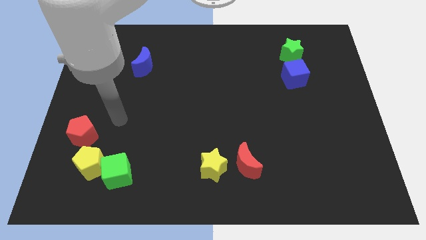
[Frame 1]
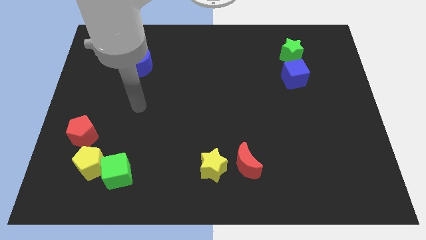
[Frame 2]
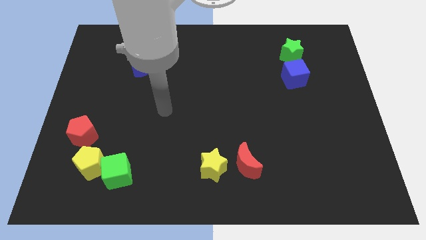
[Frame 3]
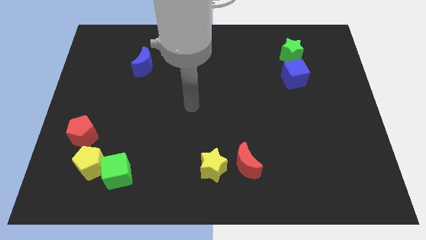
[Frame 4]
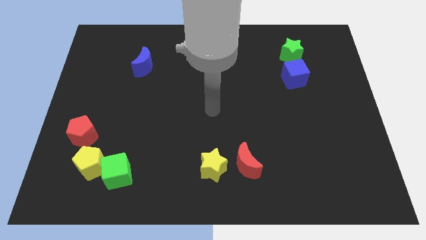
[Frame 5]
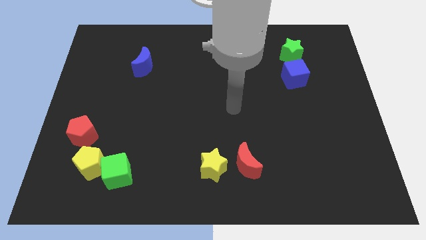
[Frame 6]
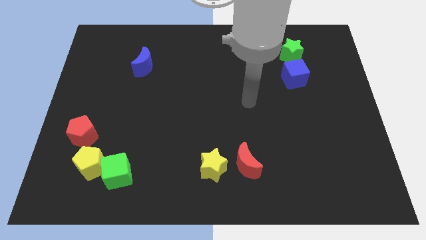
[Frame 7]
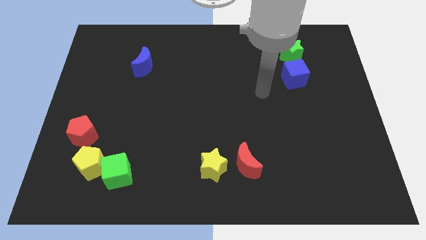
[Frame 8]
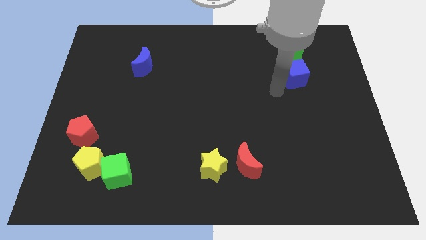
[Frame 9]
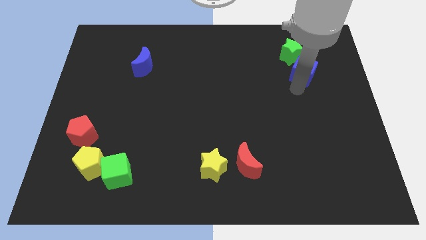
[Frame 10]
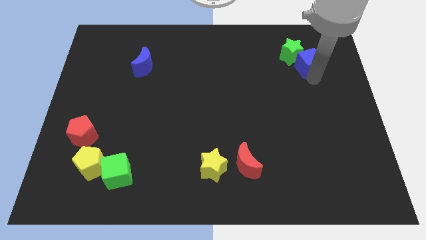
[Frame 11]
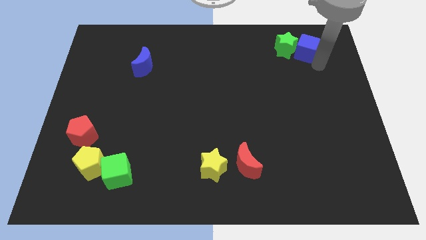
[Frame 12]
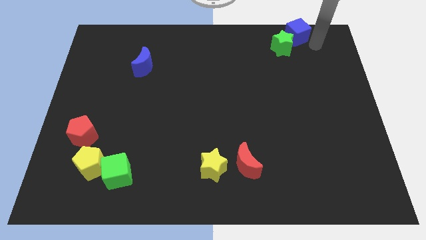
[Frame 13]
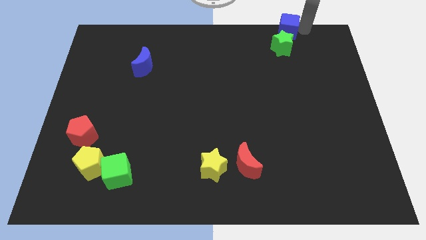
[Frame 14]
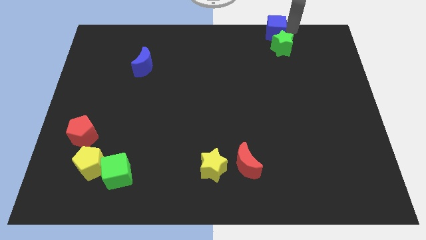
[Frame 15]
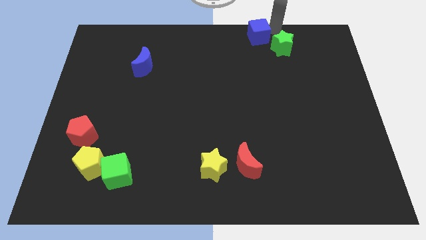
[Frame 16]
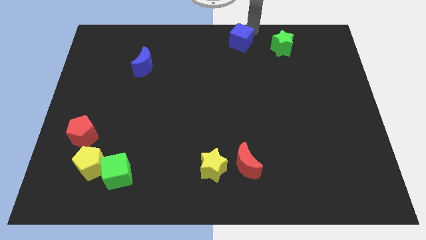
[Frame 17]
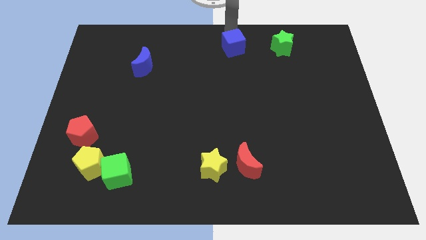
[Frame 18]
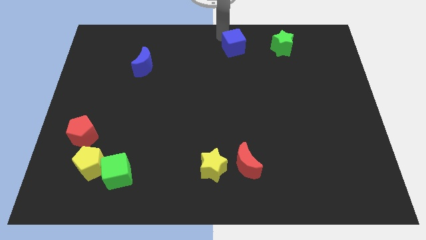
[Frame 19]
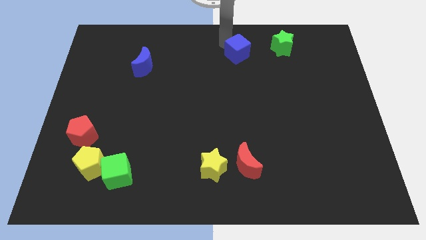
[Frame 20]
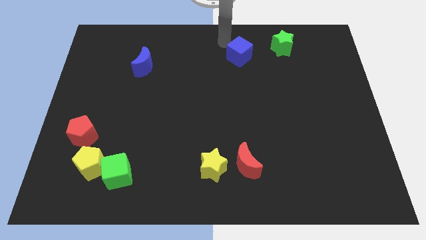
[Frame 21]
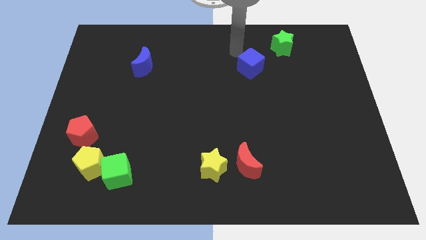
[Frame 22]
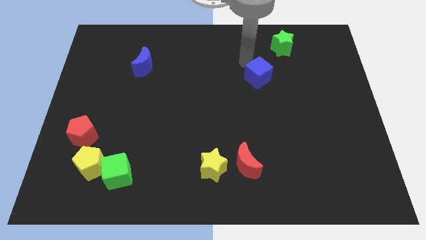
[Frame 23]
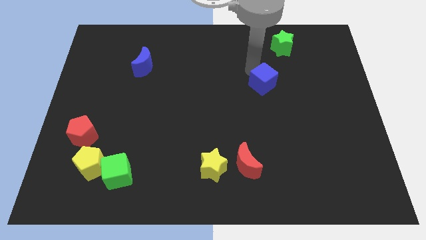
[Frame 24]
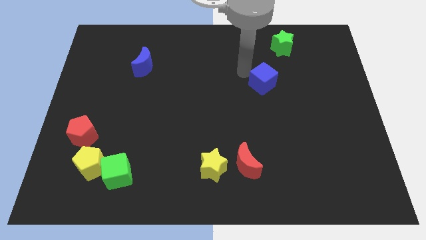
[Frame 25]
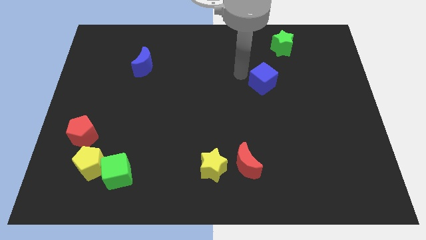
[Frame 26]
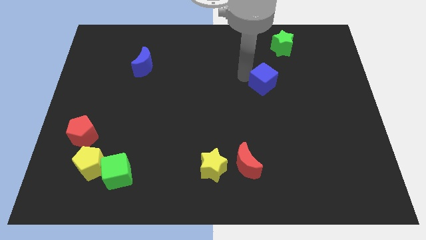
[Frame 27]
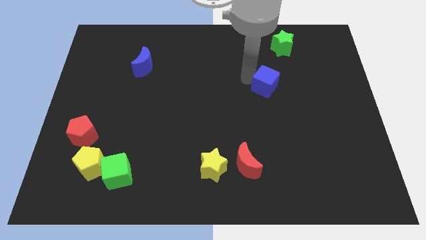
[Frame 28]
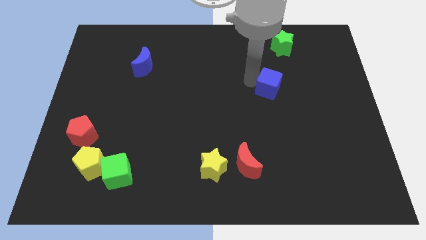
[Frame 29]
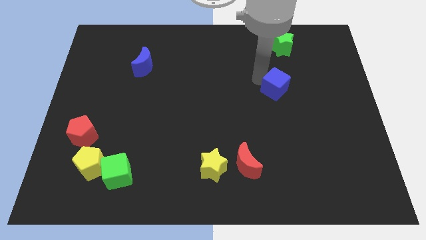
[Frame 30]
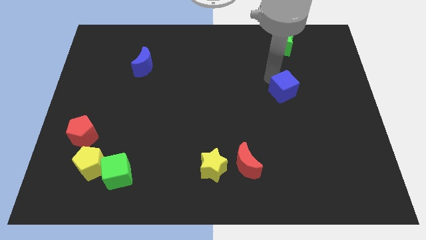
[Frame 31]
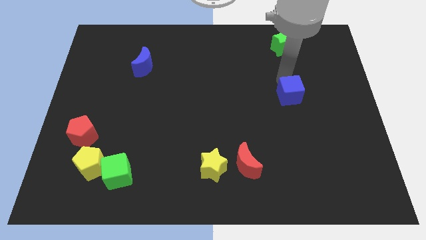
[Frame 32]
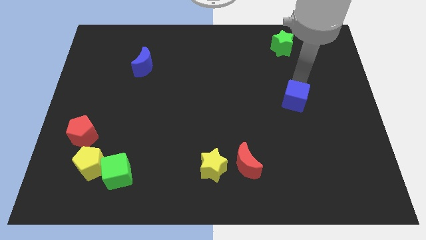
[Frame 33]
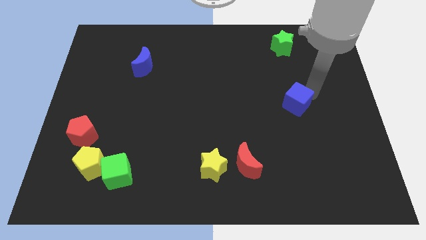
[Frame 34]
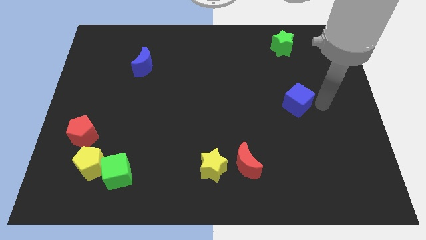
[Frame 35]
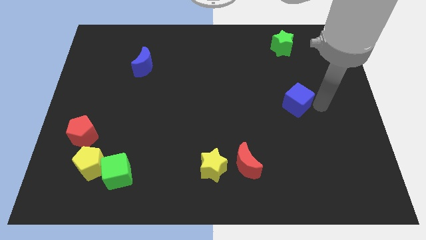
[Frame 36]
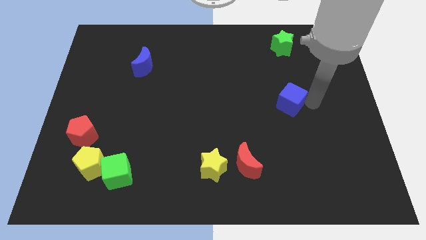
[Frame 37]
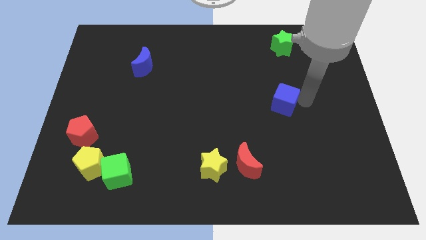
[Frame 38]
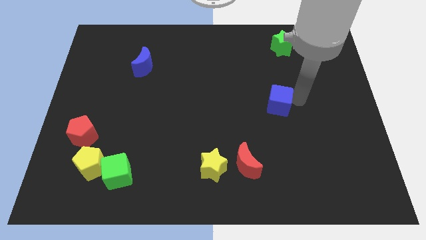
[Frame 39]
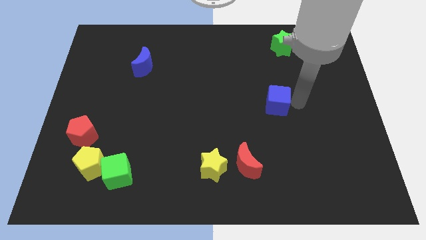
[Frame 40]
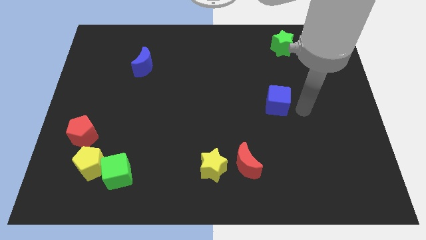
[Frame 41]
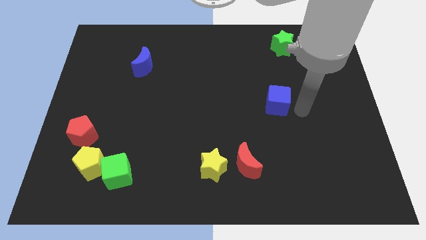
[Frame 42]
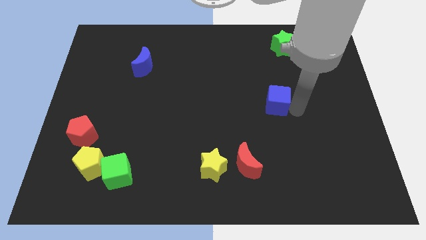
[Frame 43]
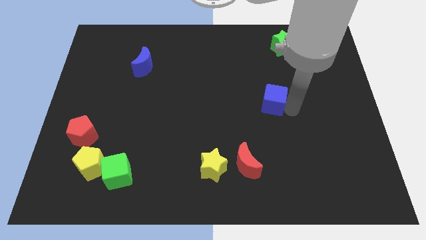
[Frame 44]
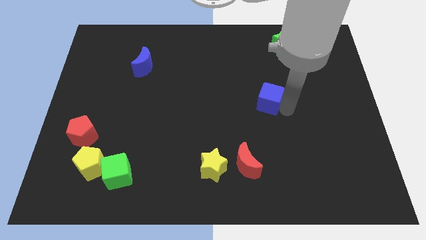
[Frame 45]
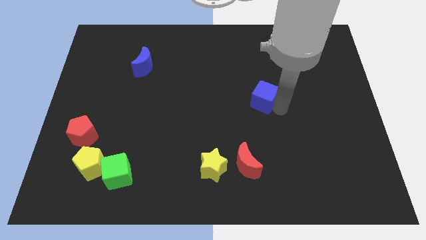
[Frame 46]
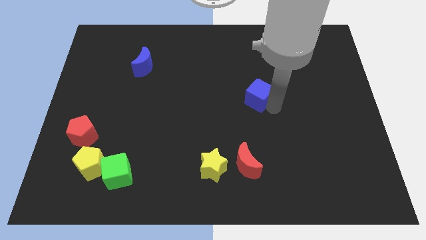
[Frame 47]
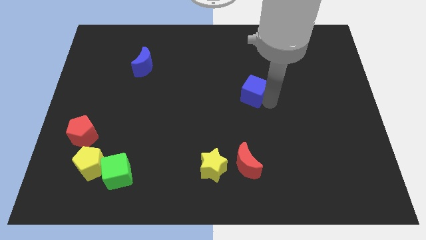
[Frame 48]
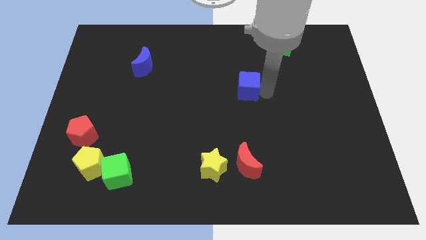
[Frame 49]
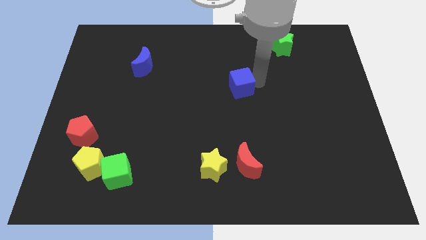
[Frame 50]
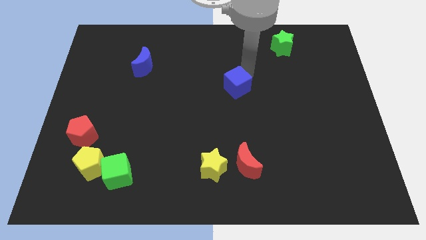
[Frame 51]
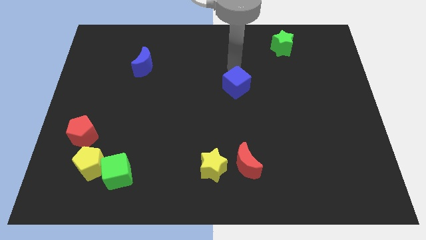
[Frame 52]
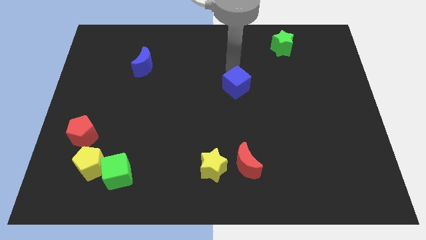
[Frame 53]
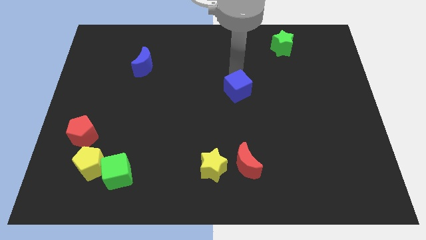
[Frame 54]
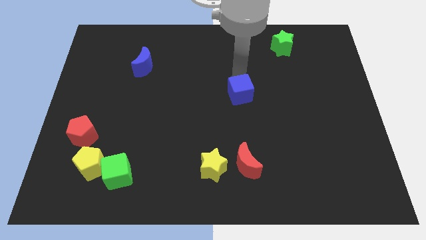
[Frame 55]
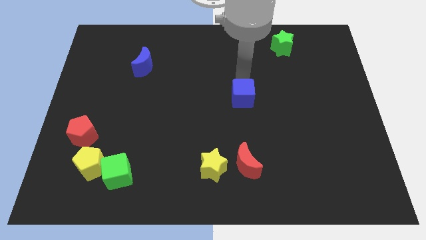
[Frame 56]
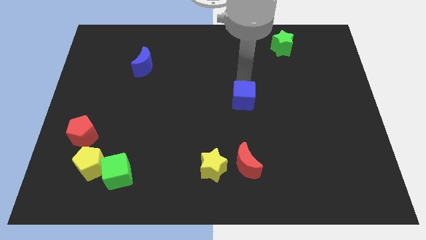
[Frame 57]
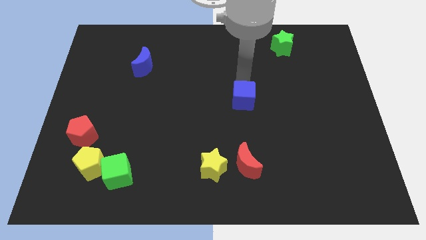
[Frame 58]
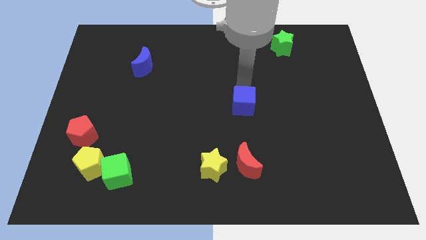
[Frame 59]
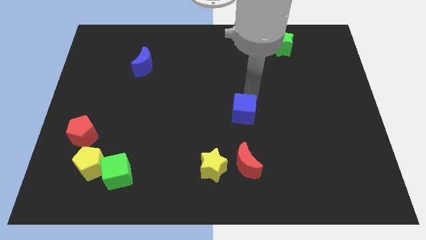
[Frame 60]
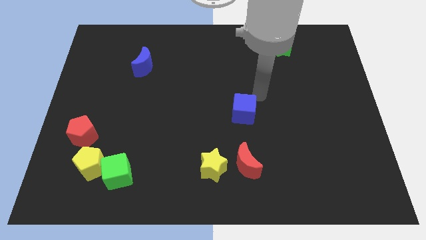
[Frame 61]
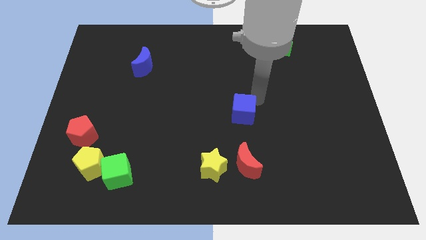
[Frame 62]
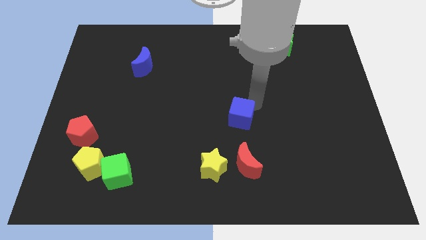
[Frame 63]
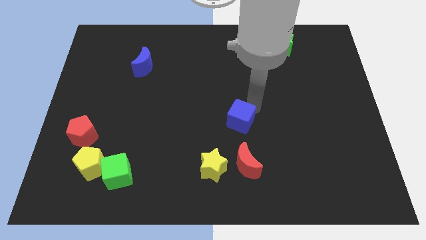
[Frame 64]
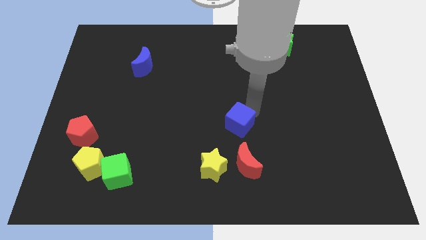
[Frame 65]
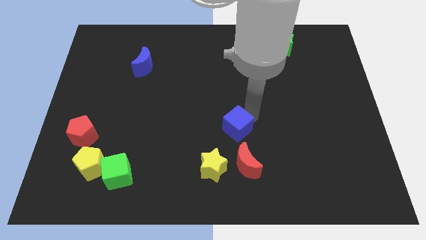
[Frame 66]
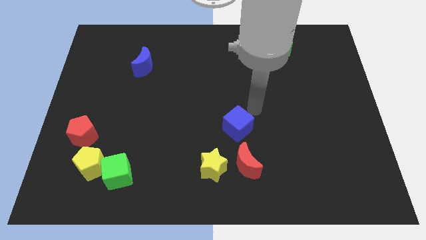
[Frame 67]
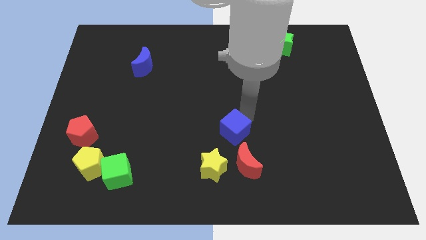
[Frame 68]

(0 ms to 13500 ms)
slide the blue cube diagonally up and to the left of the red moon
